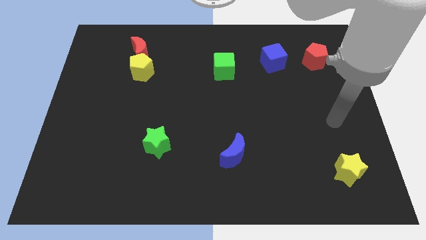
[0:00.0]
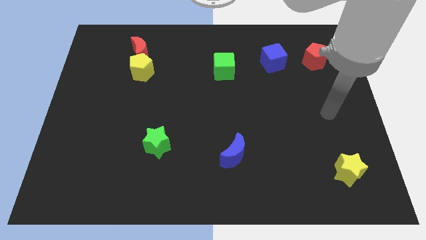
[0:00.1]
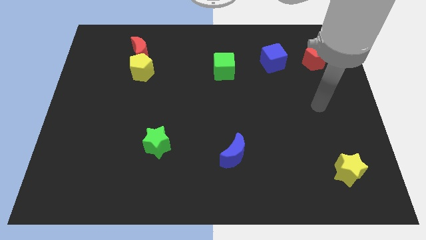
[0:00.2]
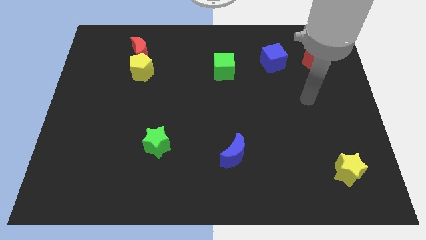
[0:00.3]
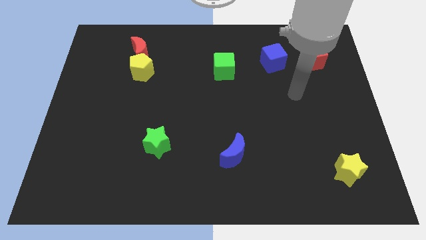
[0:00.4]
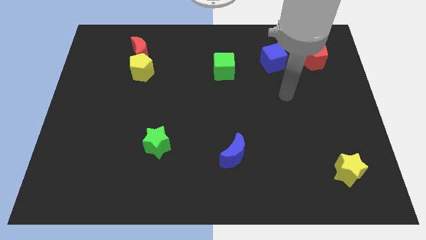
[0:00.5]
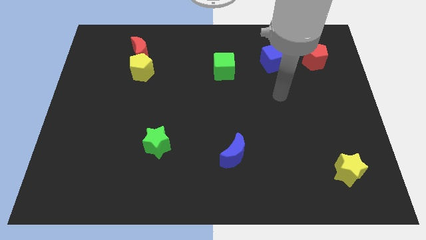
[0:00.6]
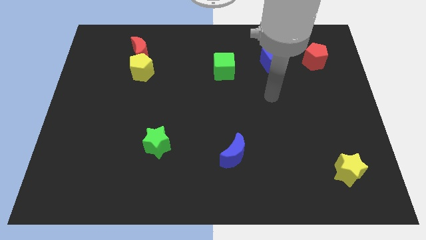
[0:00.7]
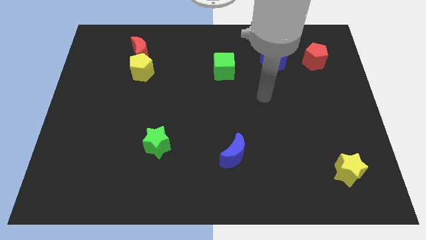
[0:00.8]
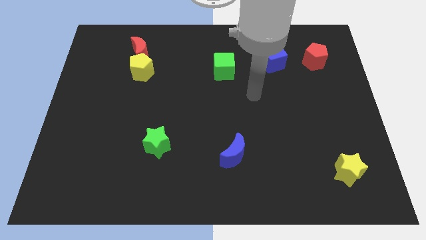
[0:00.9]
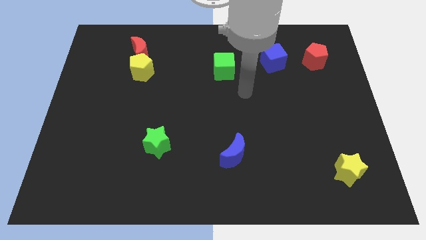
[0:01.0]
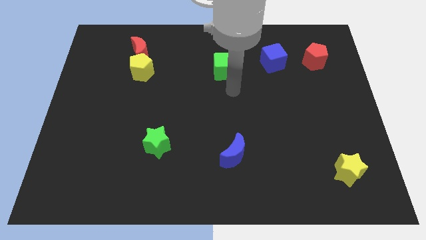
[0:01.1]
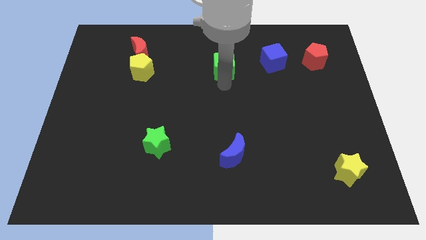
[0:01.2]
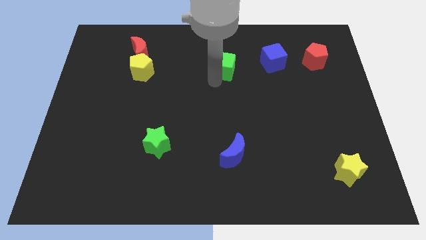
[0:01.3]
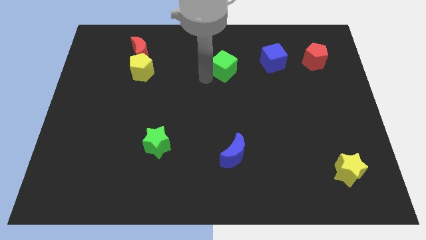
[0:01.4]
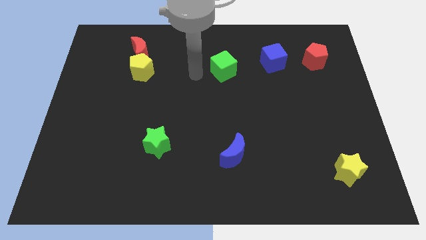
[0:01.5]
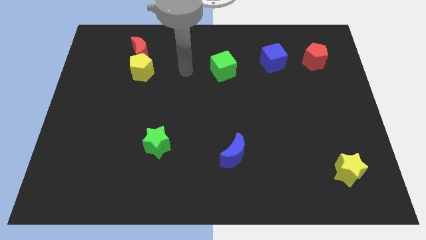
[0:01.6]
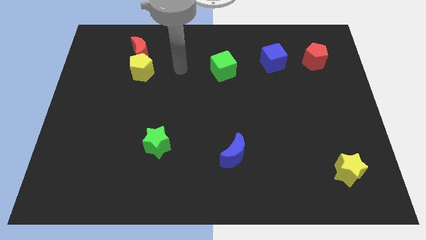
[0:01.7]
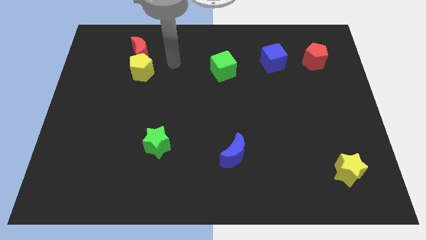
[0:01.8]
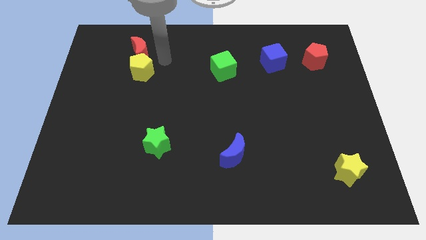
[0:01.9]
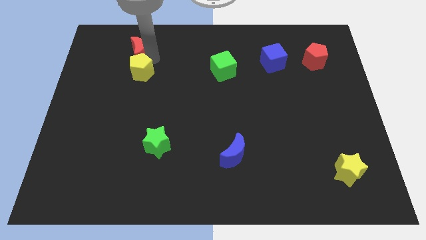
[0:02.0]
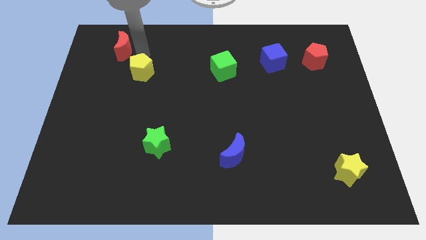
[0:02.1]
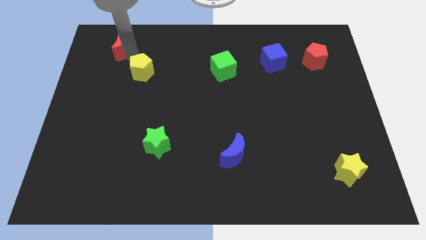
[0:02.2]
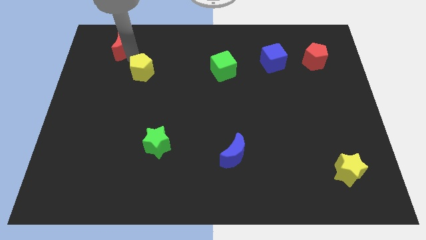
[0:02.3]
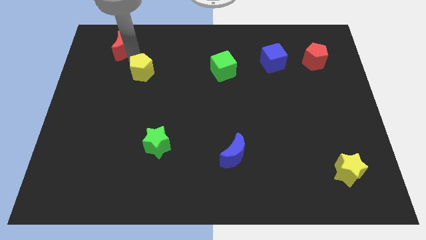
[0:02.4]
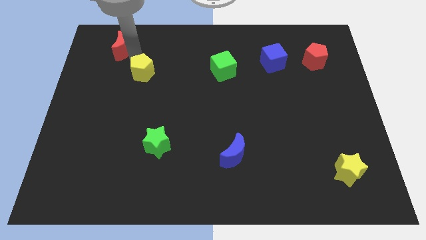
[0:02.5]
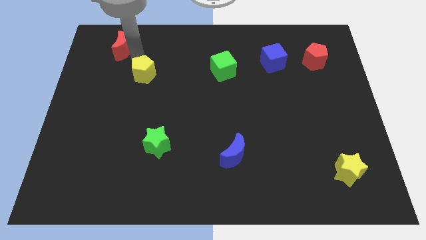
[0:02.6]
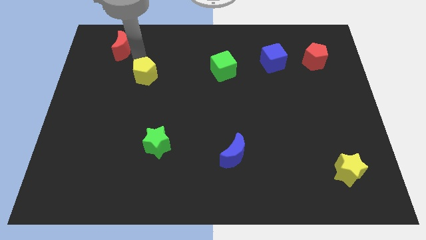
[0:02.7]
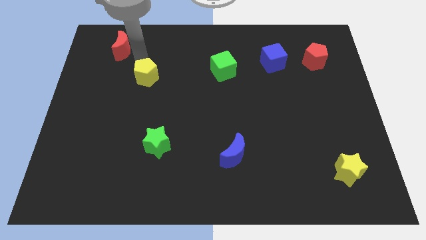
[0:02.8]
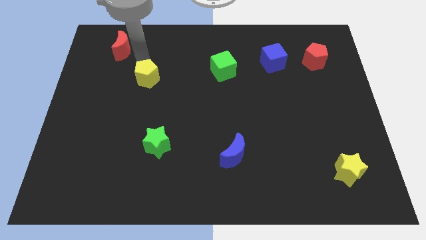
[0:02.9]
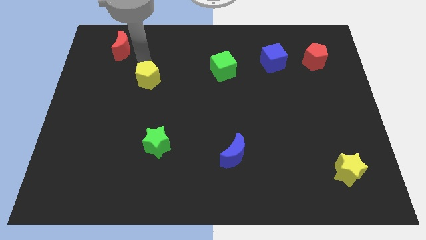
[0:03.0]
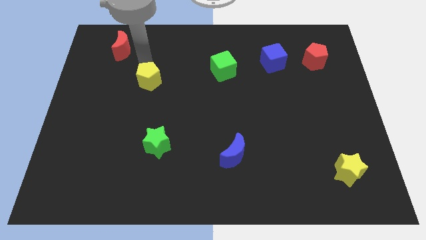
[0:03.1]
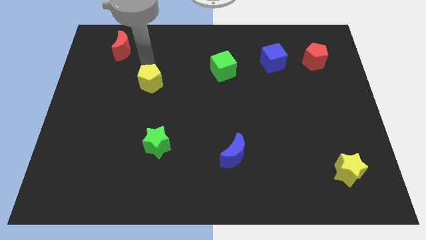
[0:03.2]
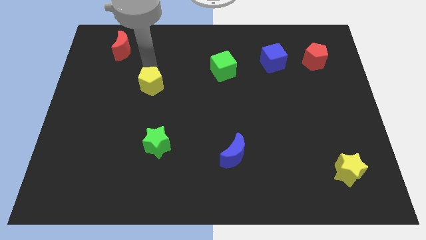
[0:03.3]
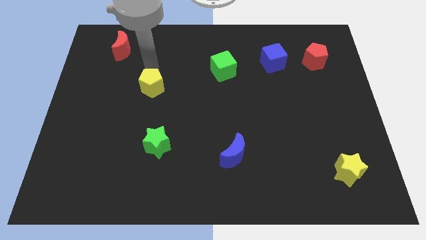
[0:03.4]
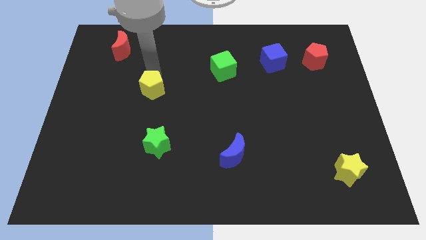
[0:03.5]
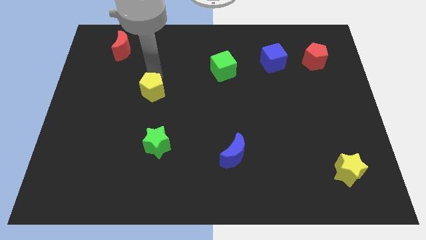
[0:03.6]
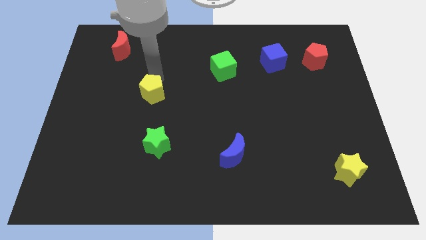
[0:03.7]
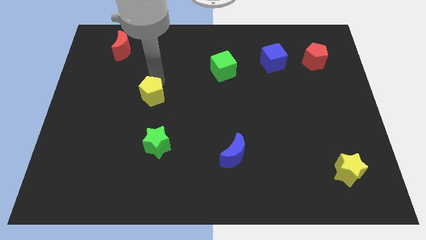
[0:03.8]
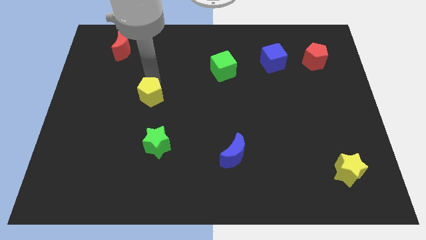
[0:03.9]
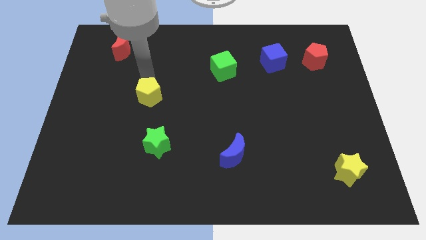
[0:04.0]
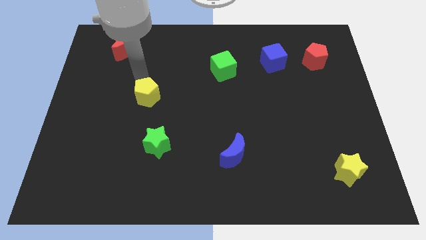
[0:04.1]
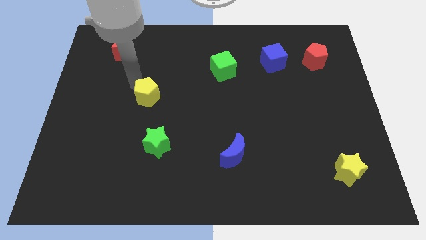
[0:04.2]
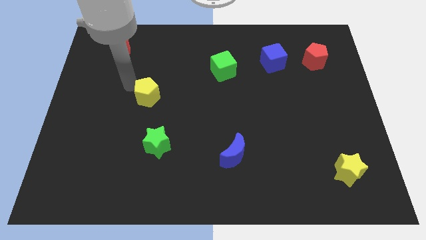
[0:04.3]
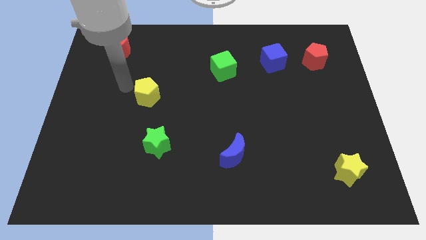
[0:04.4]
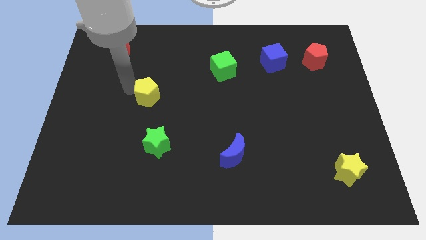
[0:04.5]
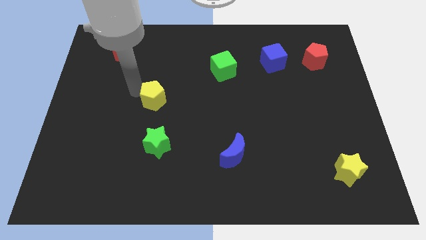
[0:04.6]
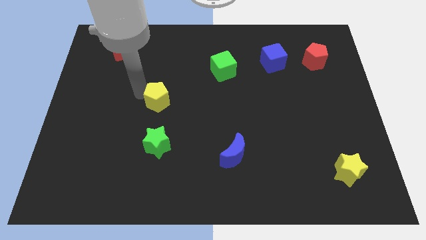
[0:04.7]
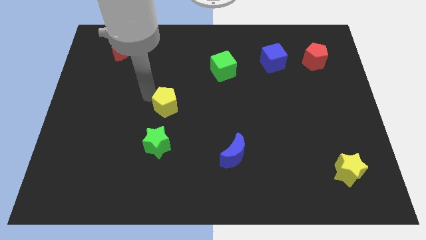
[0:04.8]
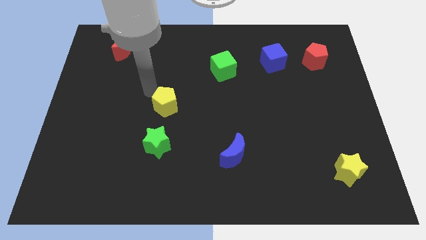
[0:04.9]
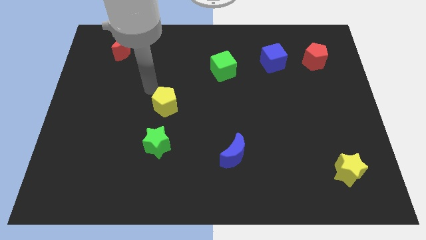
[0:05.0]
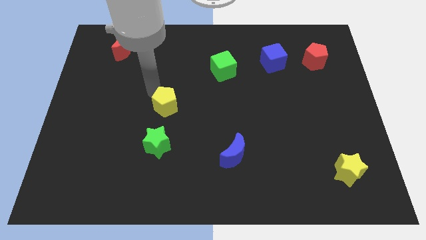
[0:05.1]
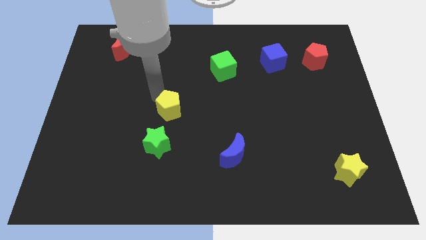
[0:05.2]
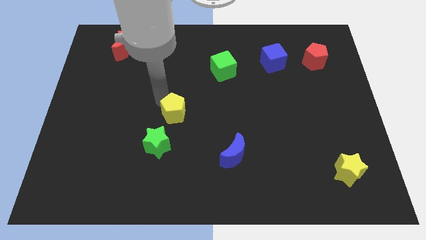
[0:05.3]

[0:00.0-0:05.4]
push the yellow pentagon to the top right side of the green star

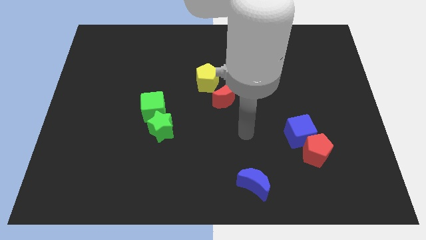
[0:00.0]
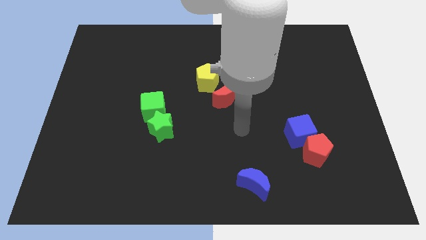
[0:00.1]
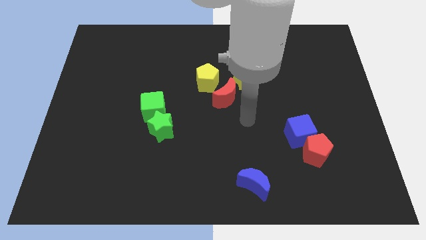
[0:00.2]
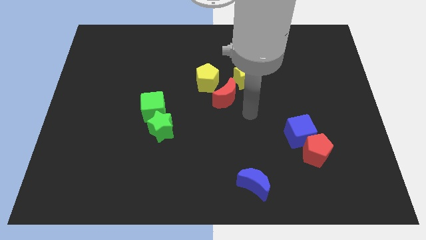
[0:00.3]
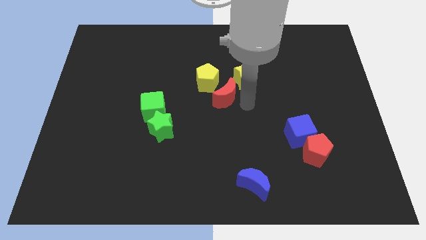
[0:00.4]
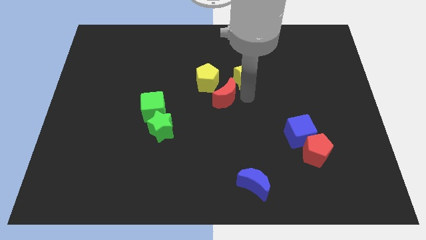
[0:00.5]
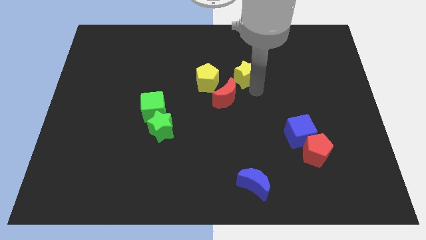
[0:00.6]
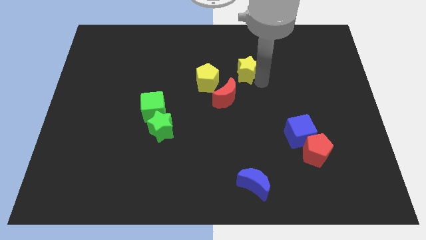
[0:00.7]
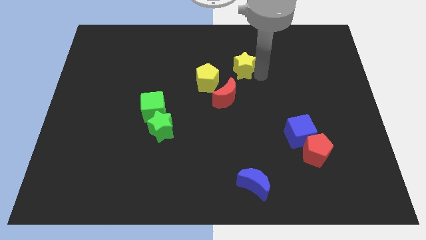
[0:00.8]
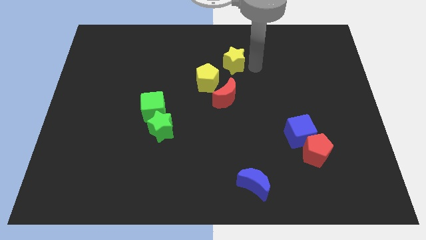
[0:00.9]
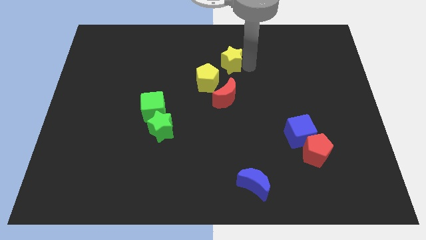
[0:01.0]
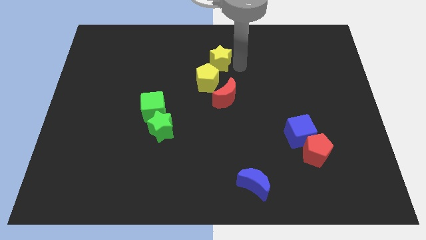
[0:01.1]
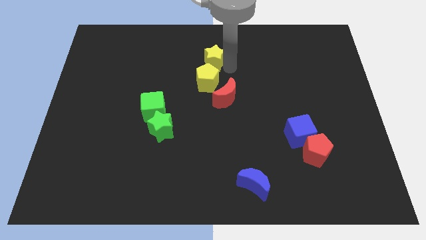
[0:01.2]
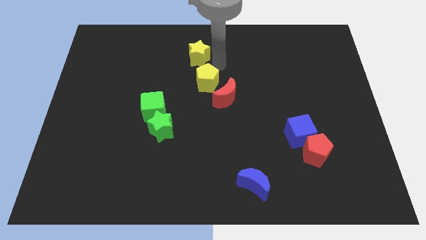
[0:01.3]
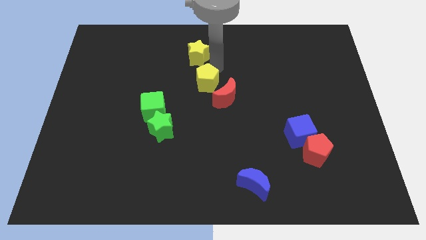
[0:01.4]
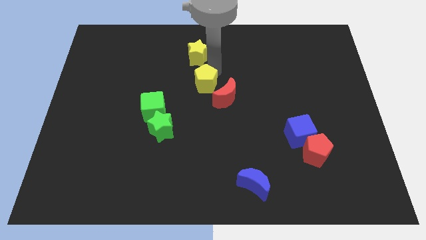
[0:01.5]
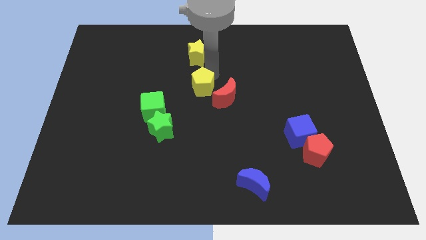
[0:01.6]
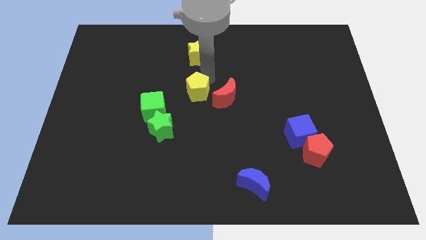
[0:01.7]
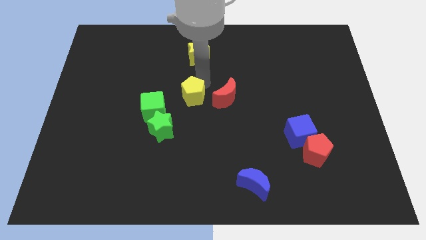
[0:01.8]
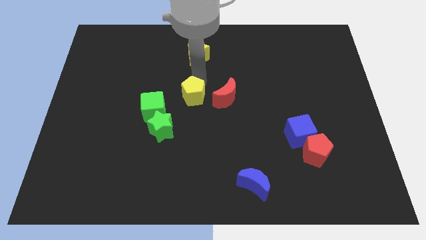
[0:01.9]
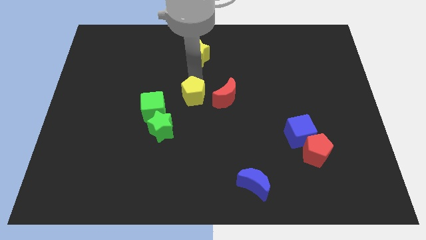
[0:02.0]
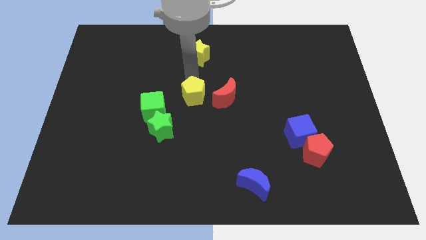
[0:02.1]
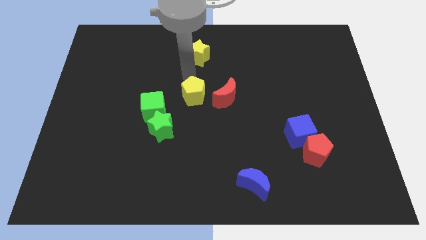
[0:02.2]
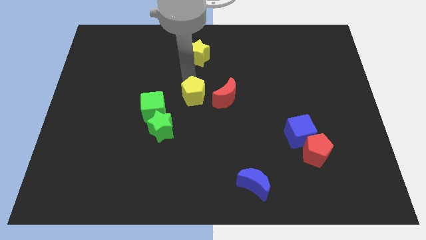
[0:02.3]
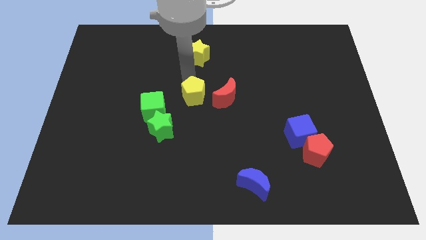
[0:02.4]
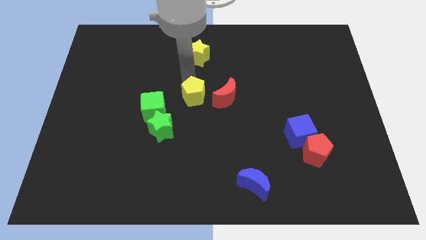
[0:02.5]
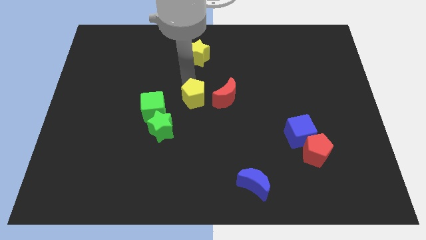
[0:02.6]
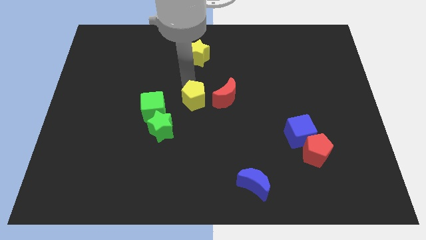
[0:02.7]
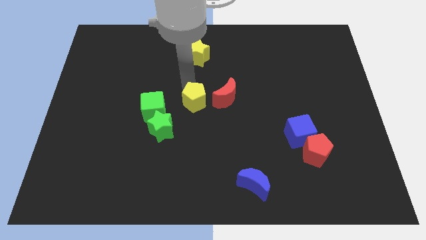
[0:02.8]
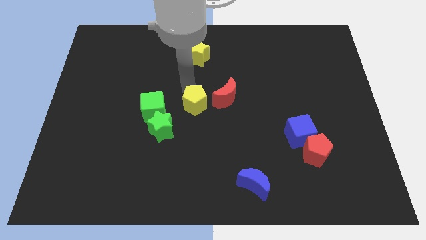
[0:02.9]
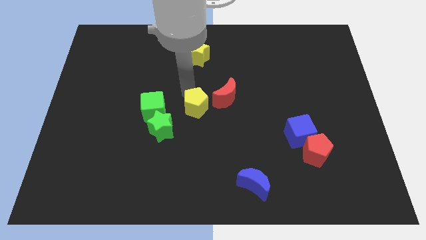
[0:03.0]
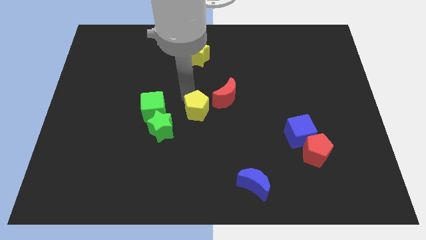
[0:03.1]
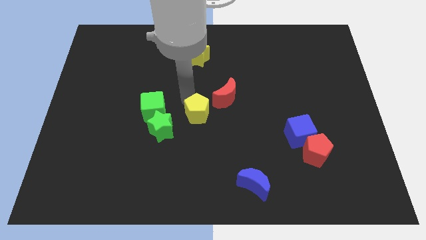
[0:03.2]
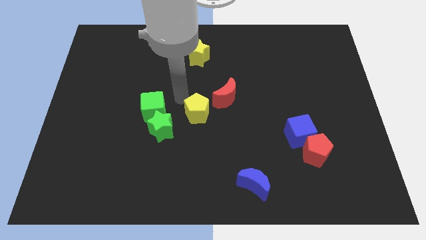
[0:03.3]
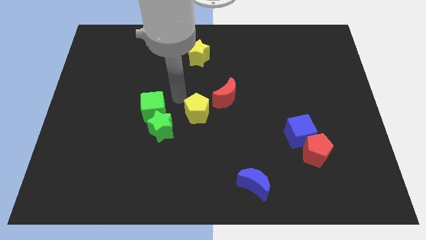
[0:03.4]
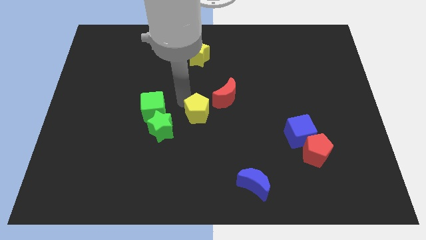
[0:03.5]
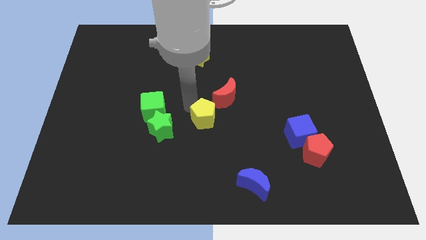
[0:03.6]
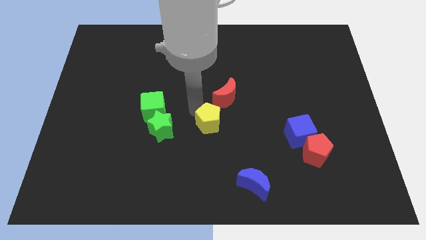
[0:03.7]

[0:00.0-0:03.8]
move the yellow pentagon to the bottom side of the red moon
